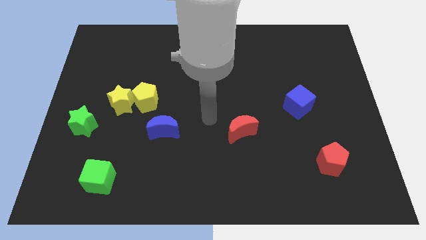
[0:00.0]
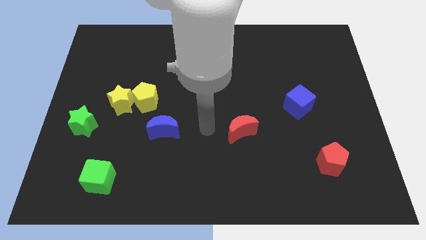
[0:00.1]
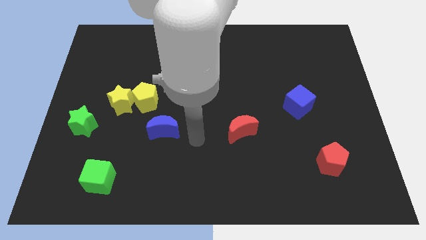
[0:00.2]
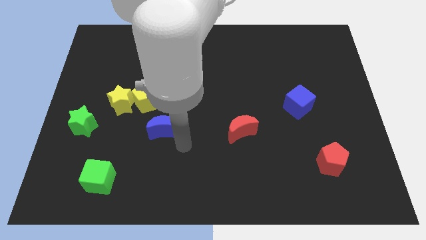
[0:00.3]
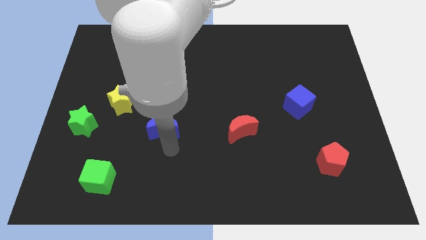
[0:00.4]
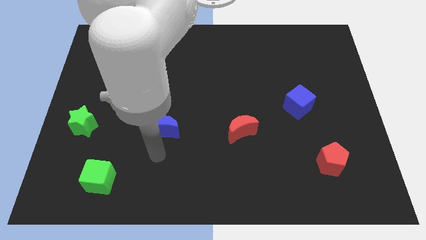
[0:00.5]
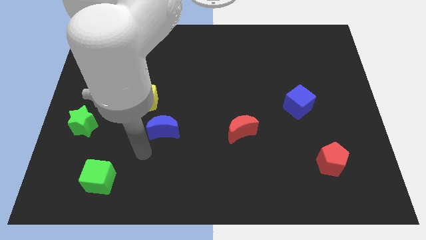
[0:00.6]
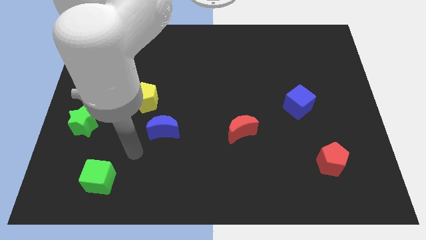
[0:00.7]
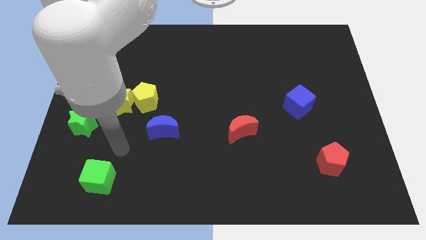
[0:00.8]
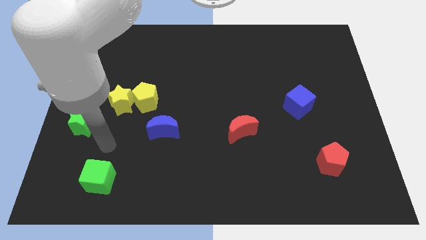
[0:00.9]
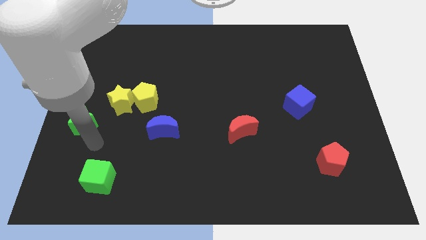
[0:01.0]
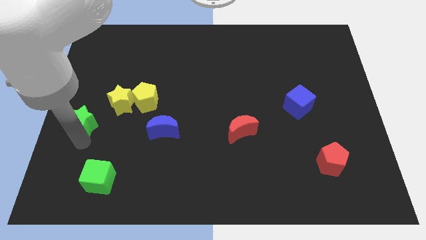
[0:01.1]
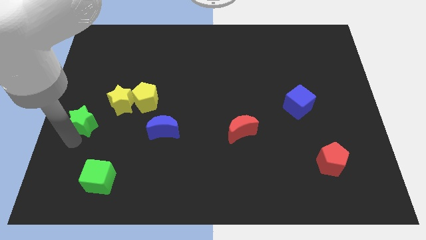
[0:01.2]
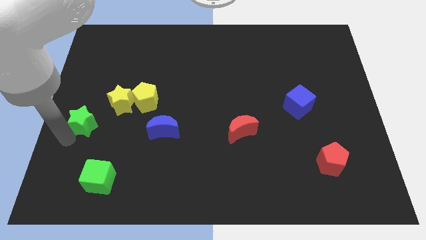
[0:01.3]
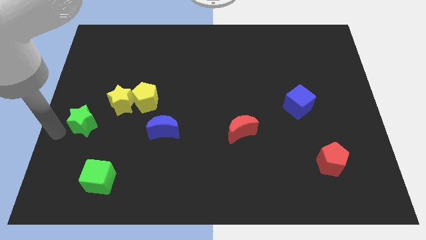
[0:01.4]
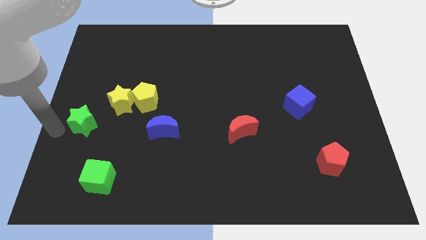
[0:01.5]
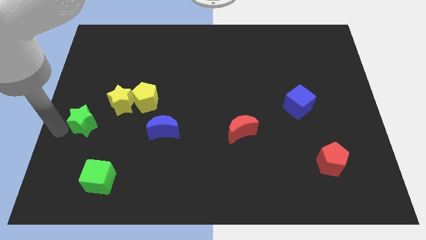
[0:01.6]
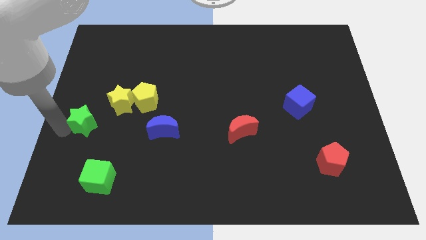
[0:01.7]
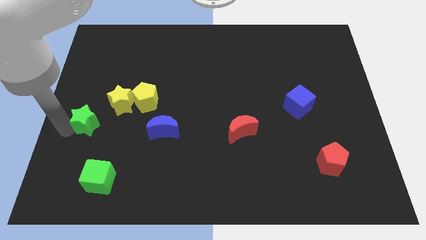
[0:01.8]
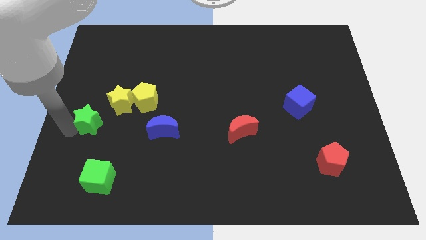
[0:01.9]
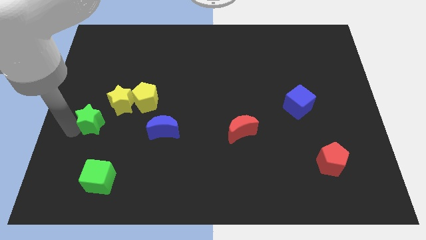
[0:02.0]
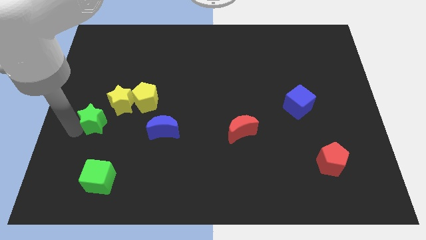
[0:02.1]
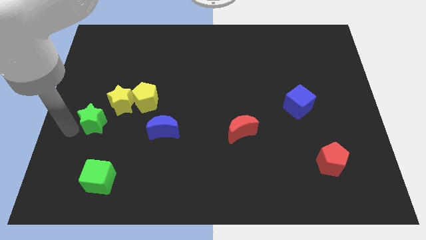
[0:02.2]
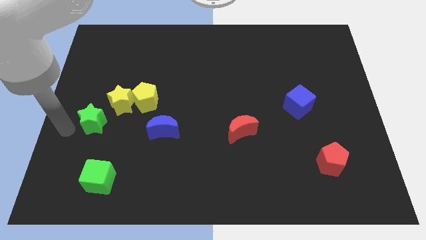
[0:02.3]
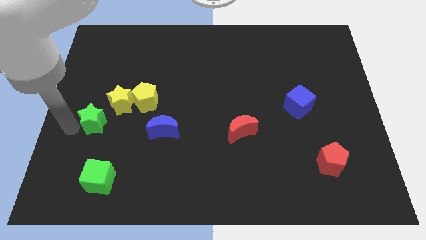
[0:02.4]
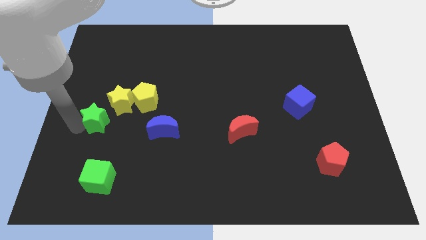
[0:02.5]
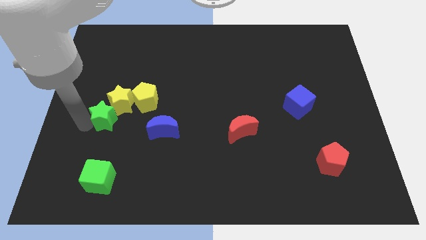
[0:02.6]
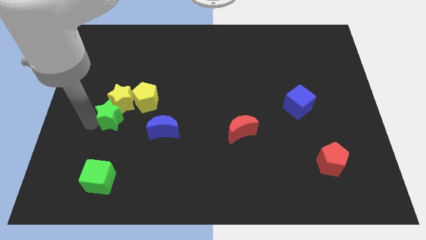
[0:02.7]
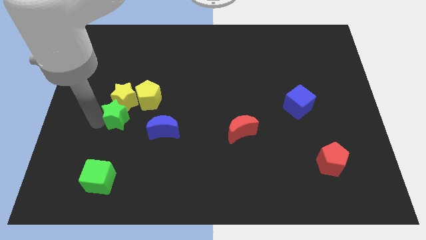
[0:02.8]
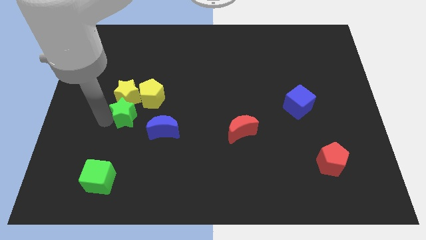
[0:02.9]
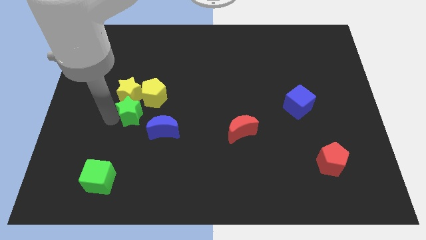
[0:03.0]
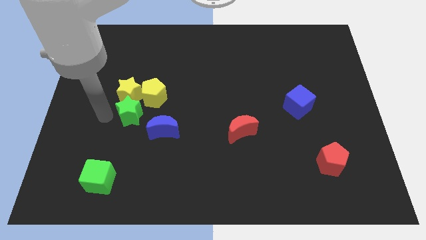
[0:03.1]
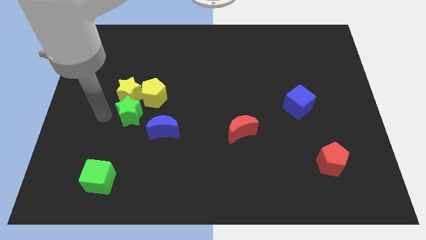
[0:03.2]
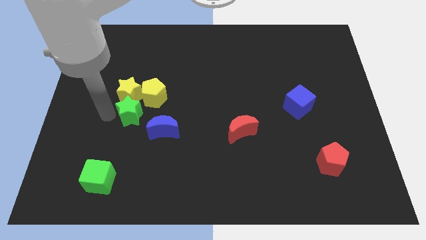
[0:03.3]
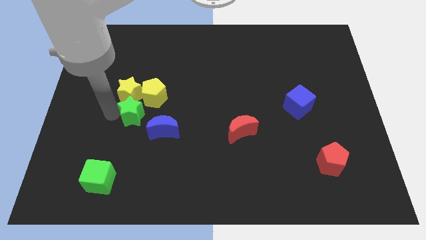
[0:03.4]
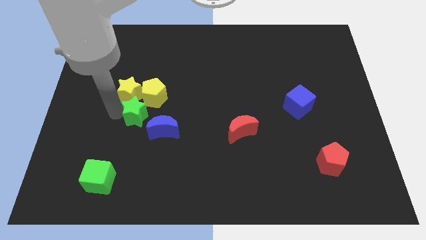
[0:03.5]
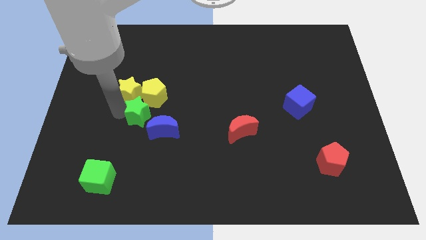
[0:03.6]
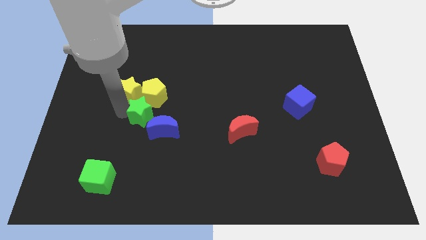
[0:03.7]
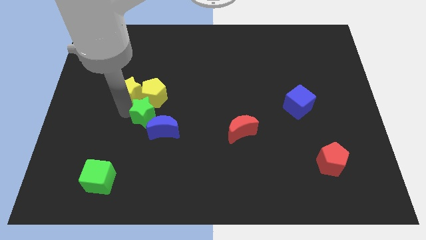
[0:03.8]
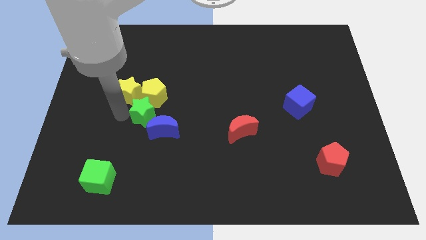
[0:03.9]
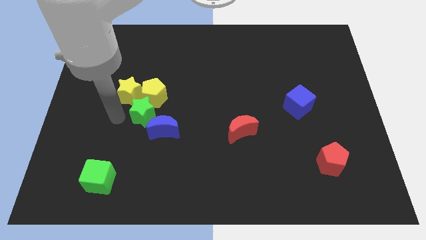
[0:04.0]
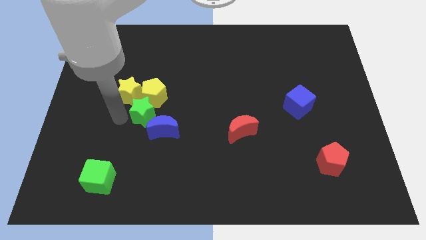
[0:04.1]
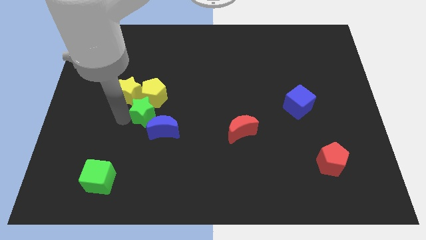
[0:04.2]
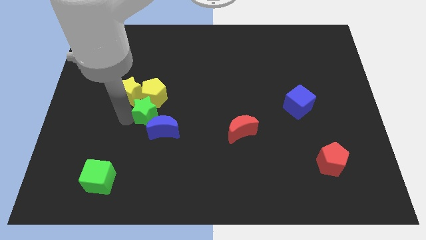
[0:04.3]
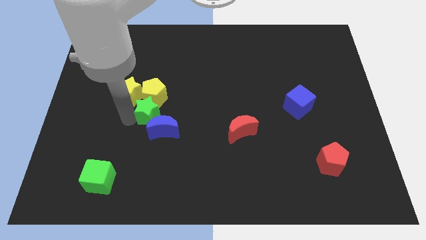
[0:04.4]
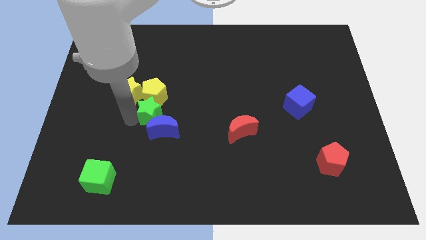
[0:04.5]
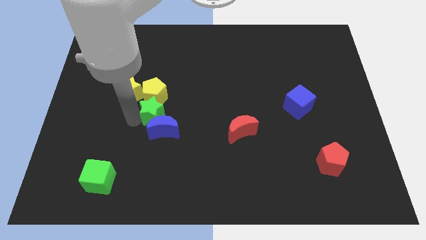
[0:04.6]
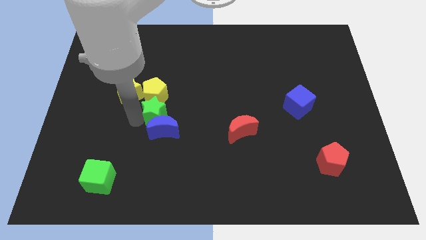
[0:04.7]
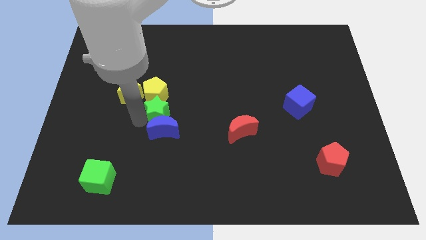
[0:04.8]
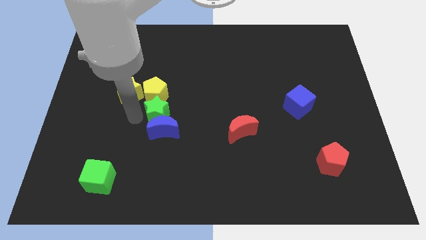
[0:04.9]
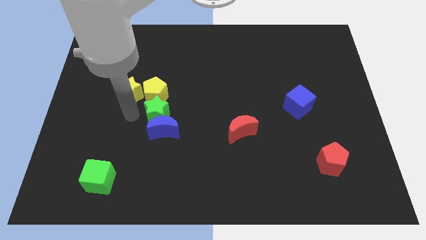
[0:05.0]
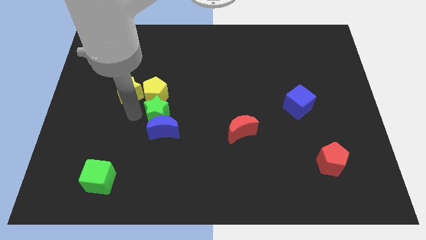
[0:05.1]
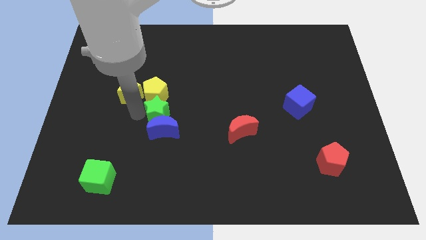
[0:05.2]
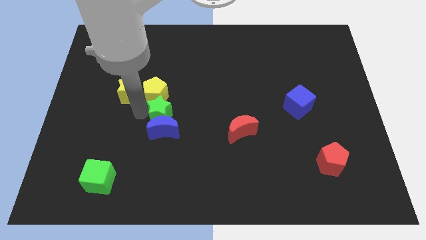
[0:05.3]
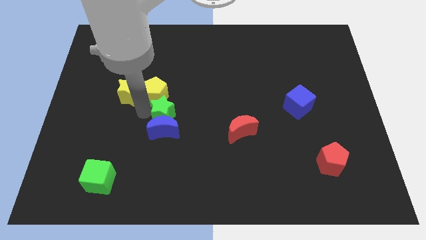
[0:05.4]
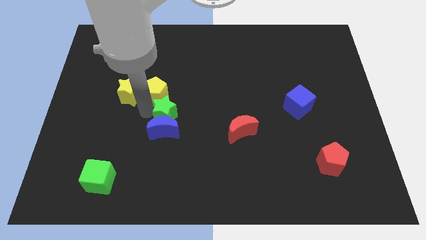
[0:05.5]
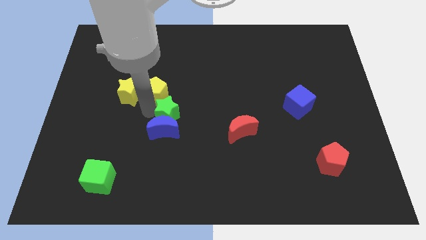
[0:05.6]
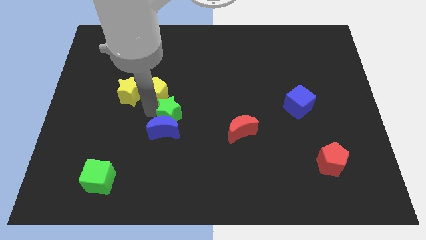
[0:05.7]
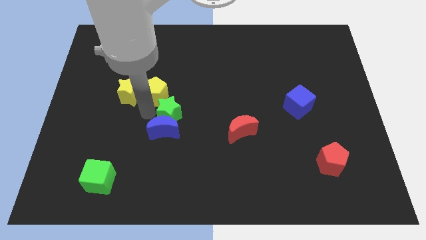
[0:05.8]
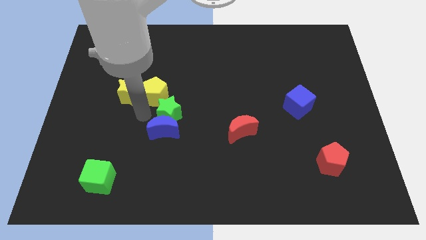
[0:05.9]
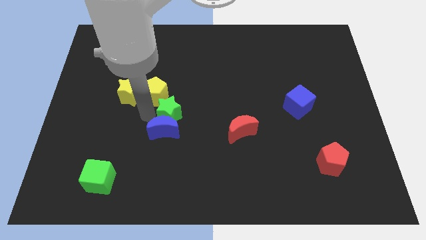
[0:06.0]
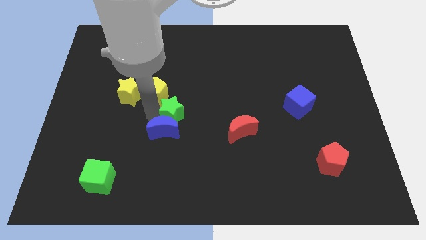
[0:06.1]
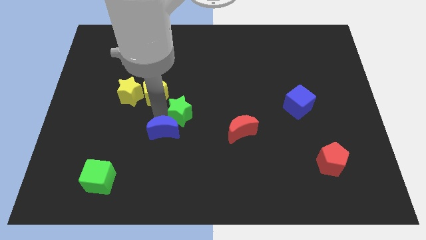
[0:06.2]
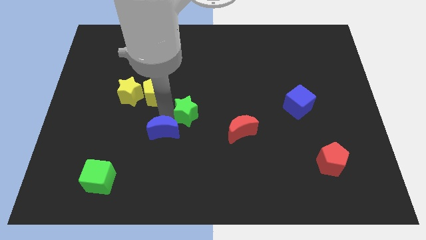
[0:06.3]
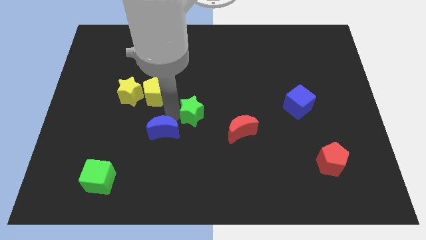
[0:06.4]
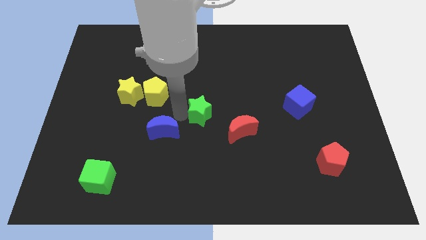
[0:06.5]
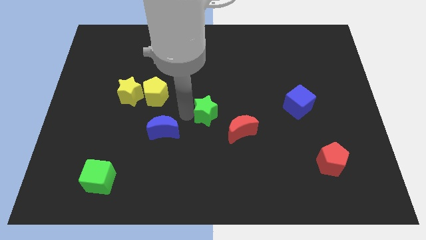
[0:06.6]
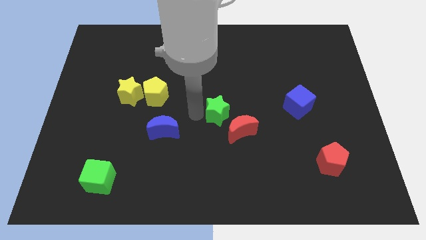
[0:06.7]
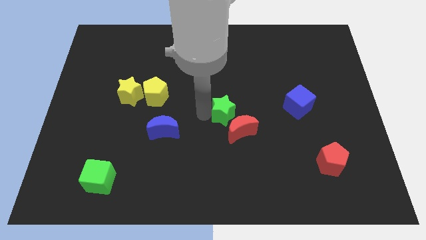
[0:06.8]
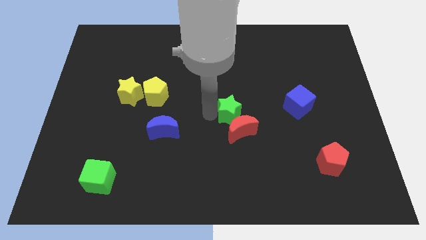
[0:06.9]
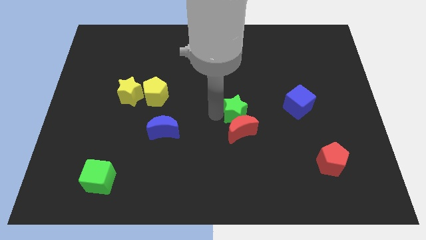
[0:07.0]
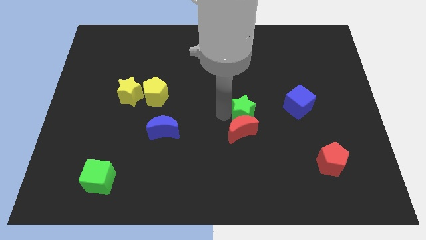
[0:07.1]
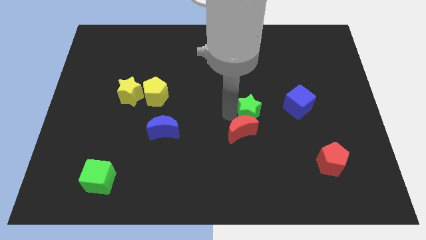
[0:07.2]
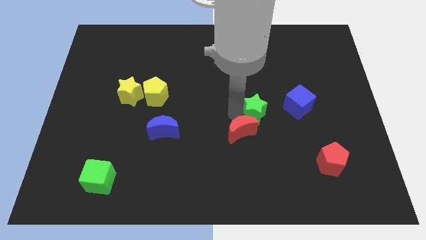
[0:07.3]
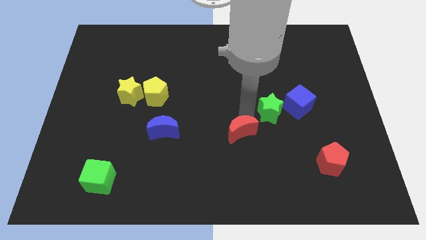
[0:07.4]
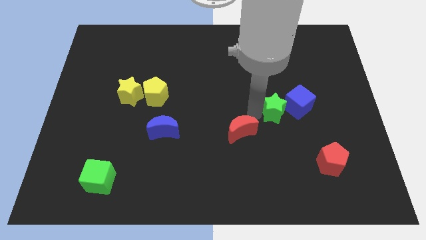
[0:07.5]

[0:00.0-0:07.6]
slide the green star towards the blue cube
